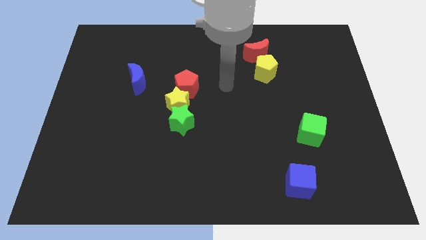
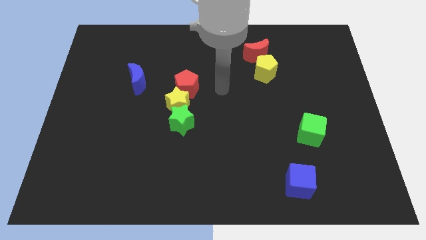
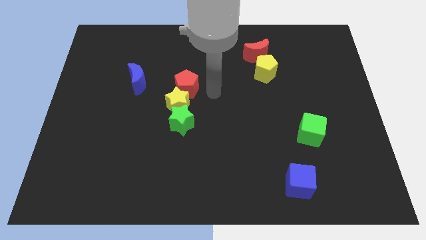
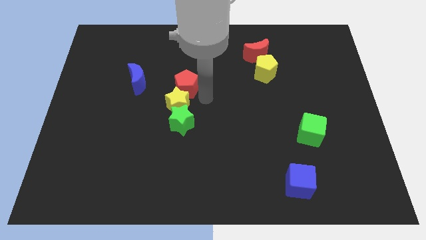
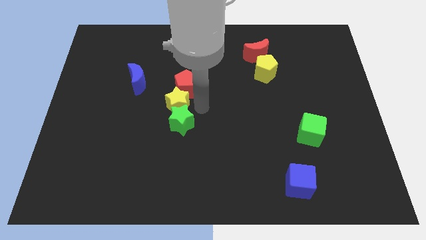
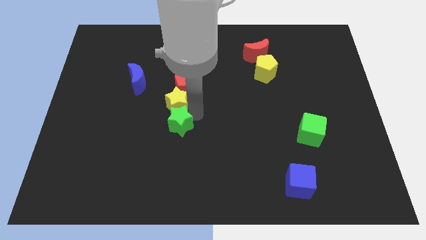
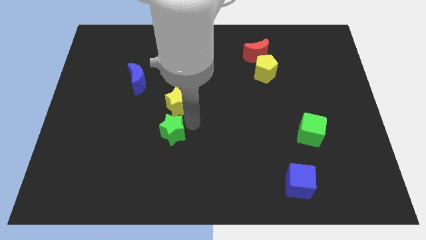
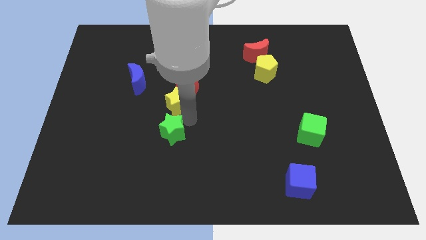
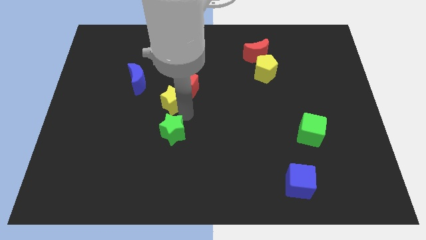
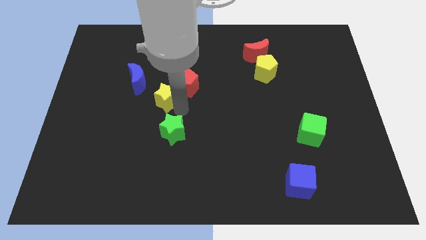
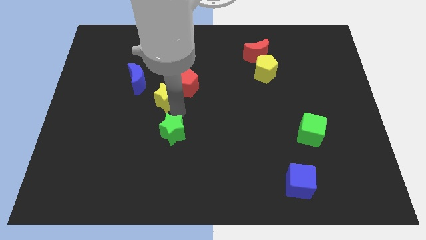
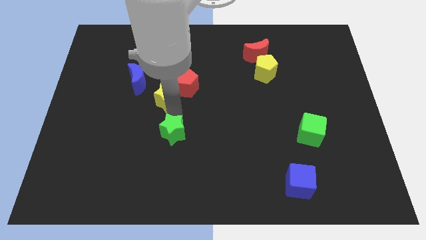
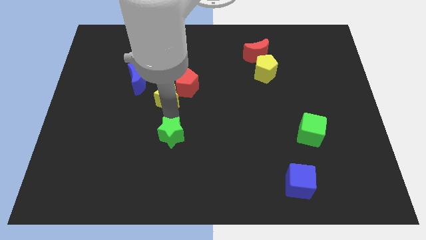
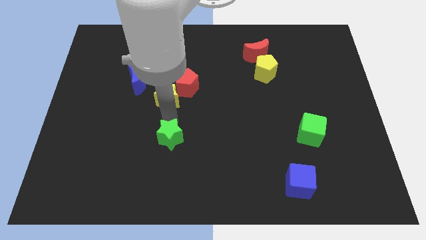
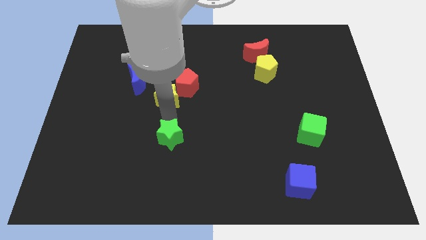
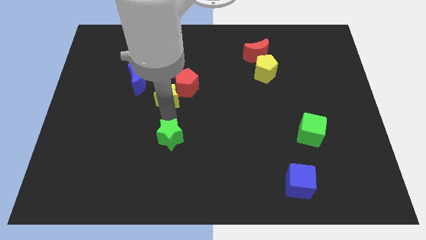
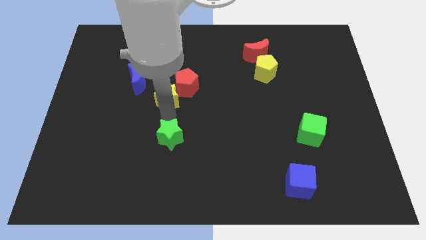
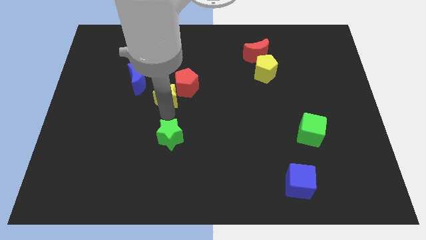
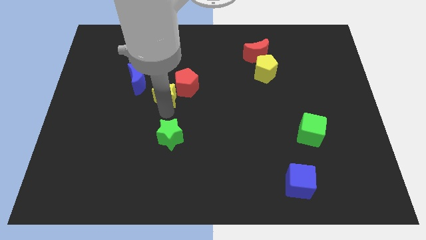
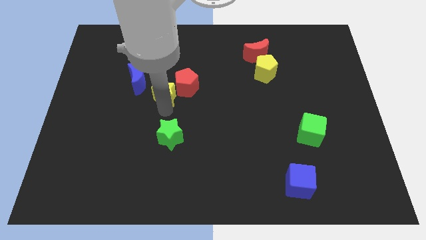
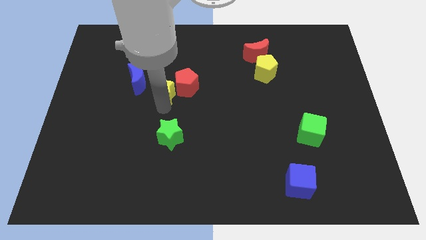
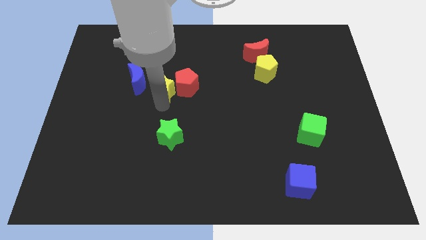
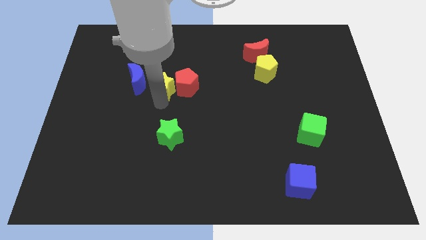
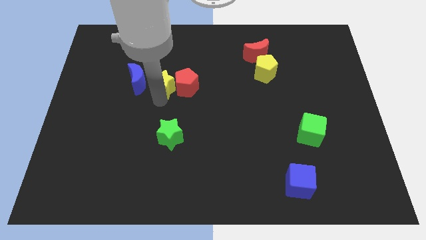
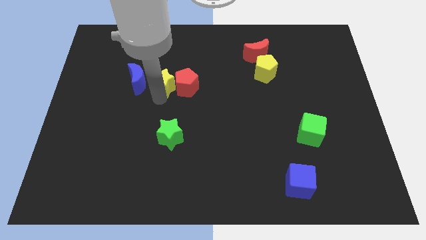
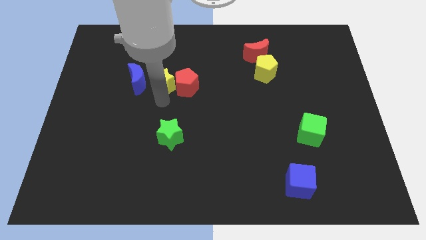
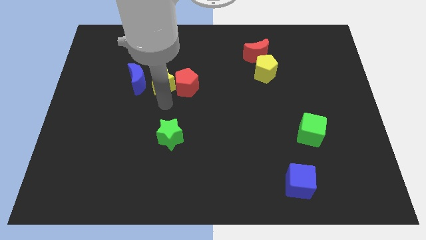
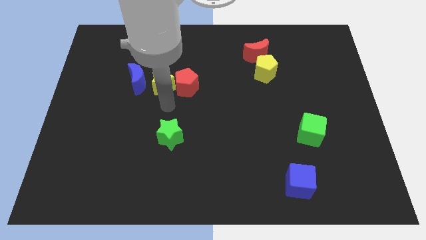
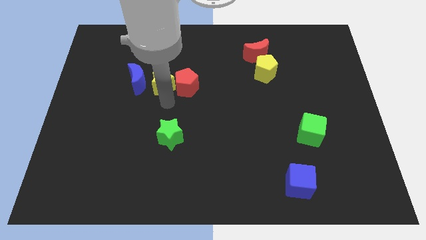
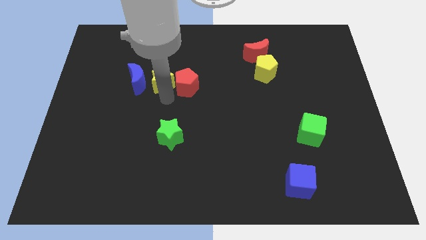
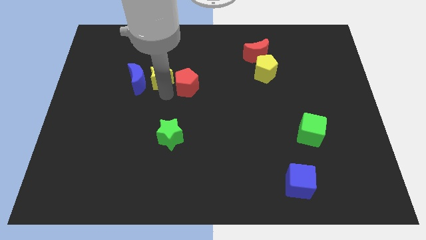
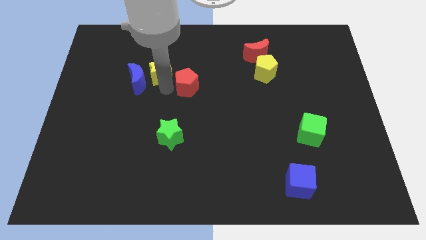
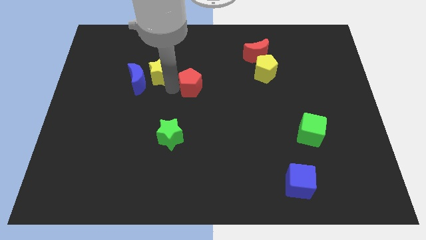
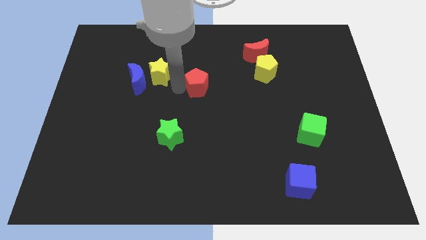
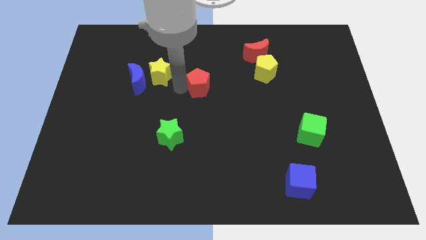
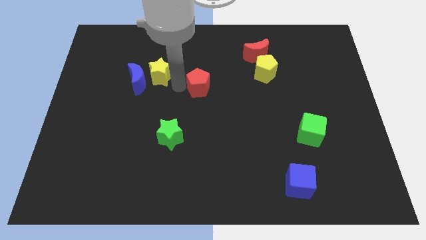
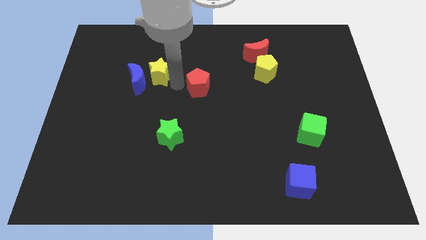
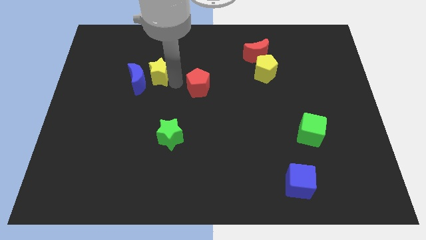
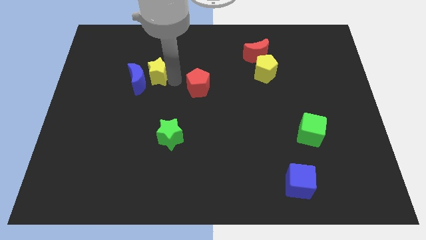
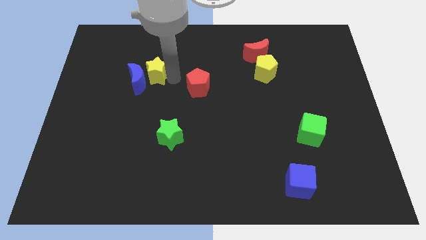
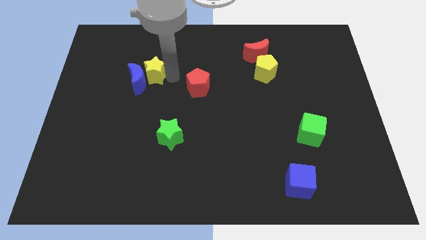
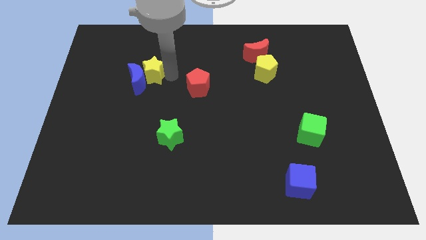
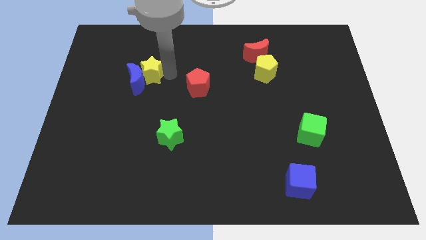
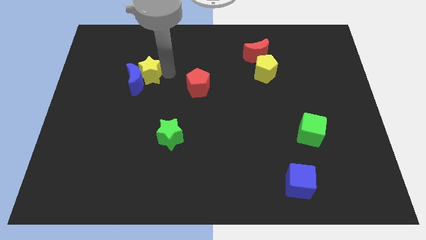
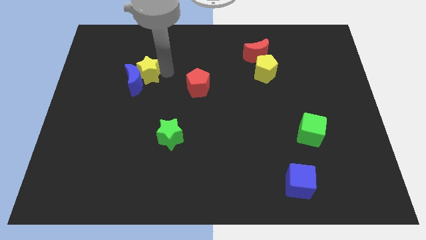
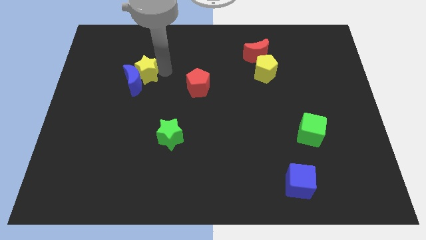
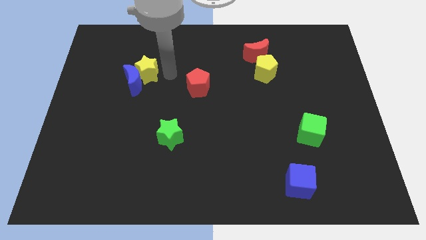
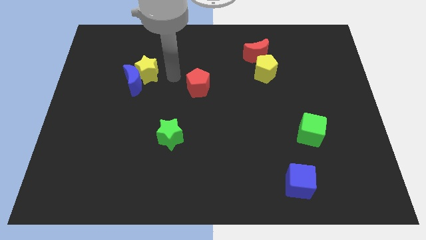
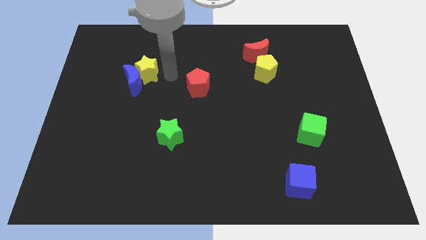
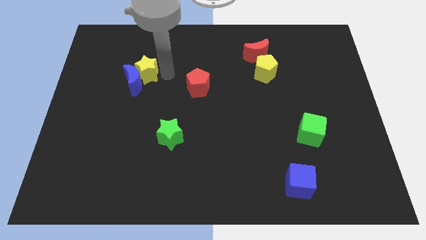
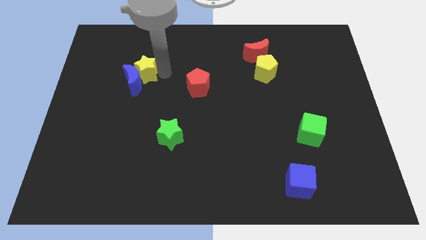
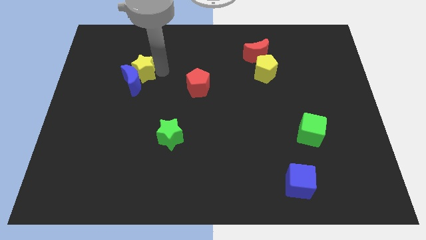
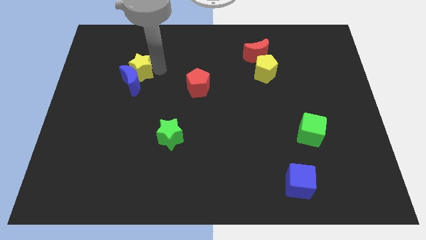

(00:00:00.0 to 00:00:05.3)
put the yellow star diagonally up and to the left of the blue moon

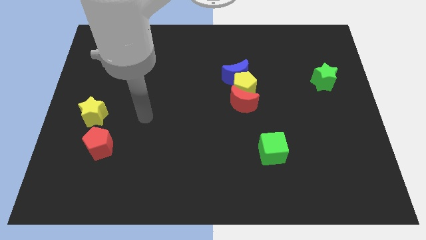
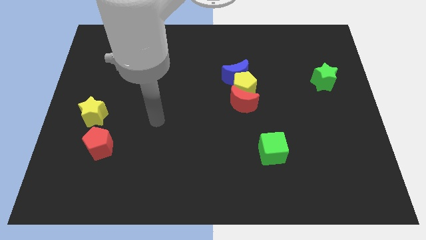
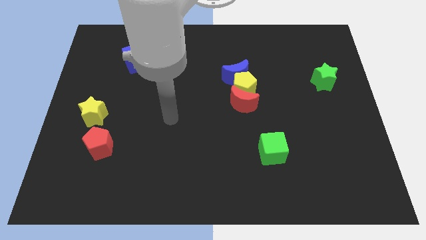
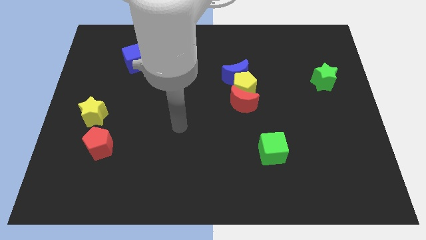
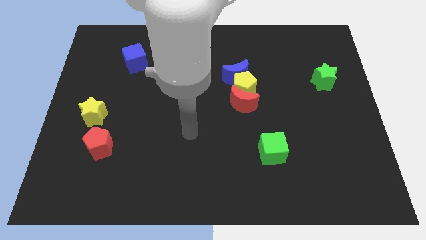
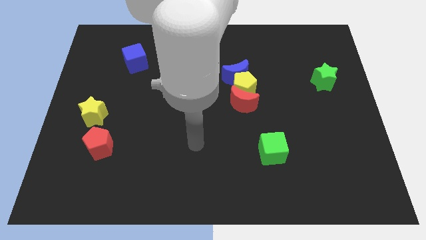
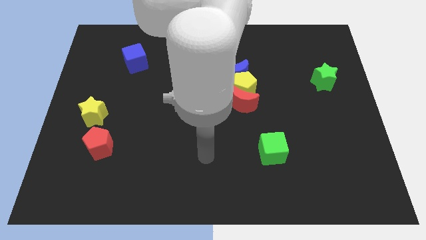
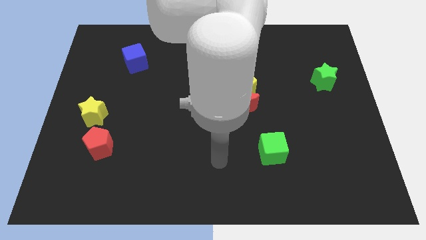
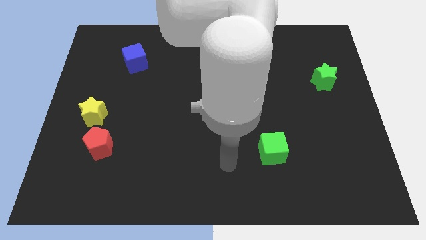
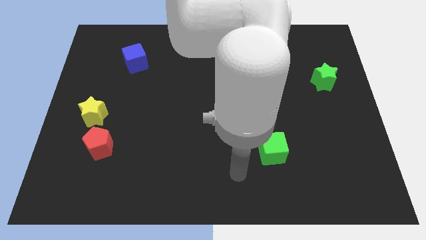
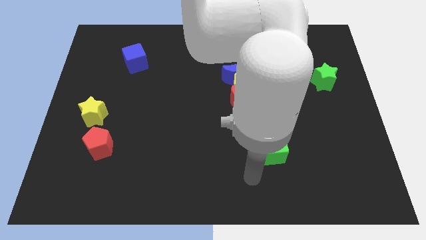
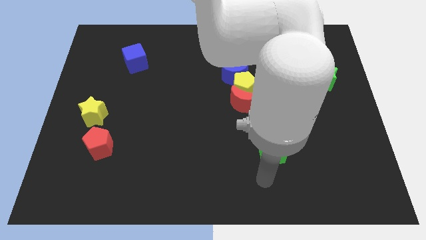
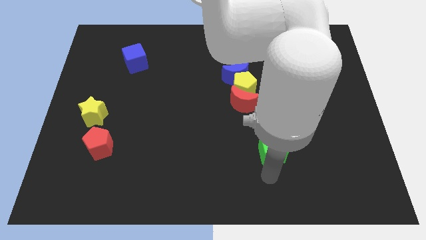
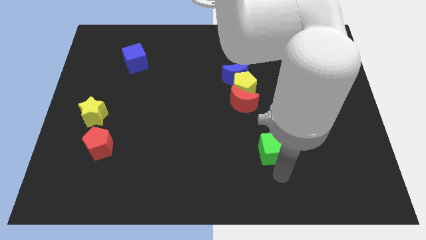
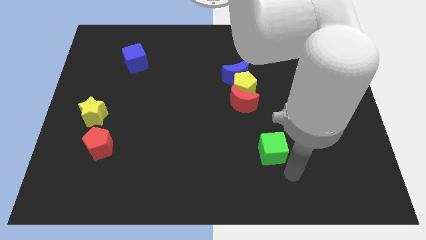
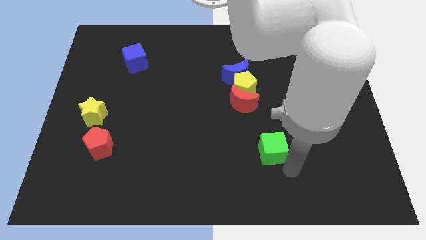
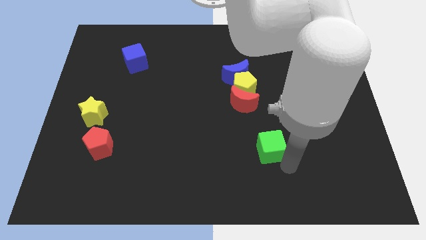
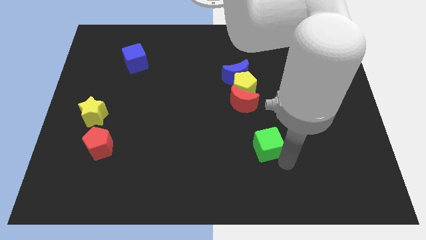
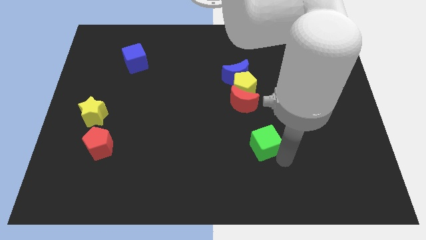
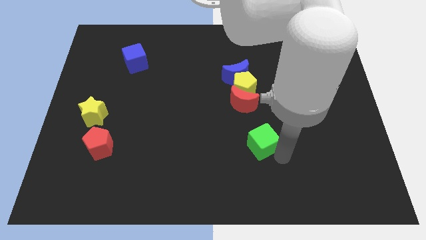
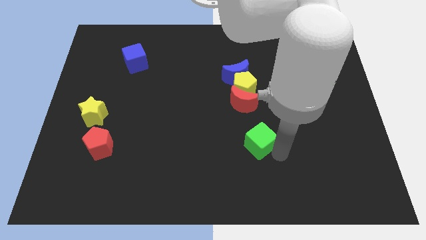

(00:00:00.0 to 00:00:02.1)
put the green cube below the yellow pentagon

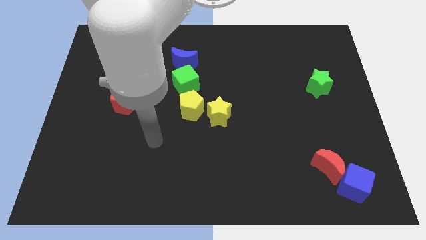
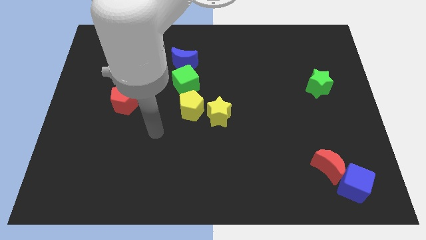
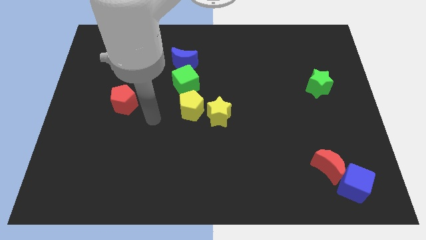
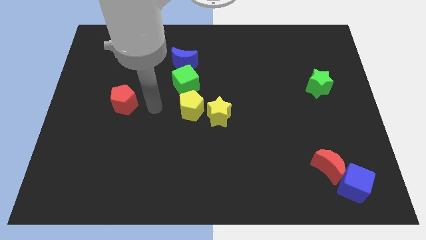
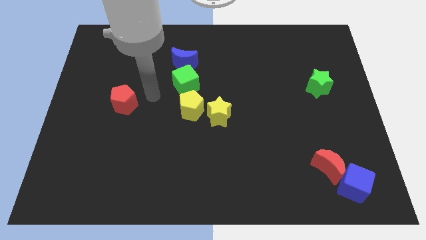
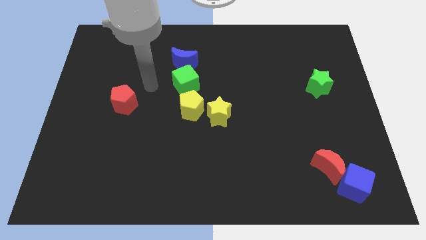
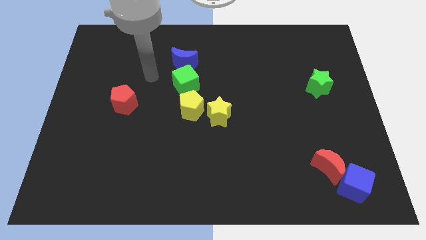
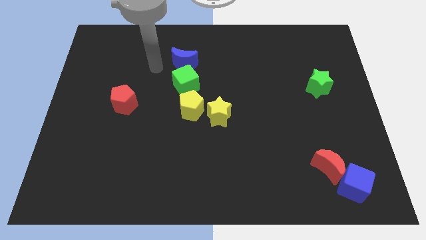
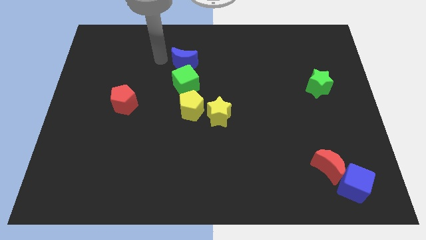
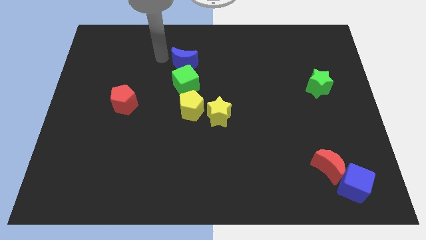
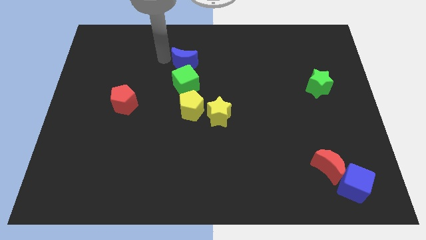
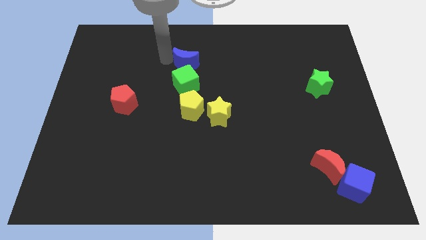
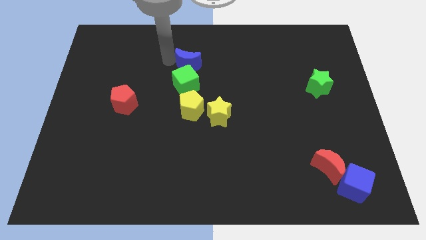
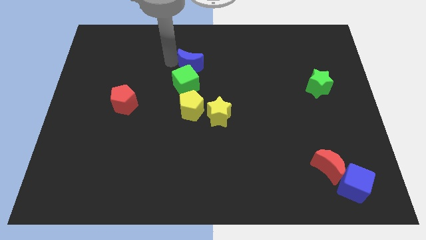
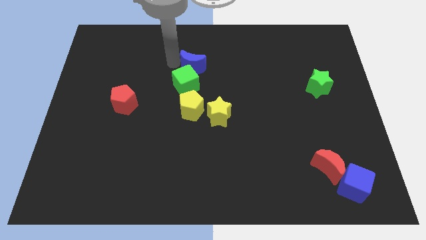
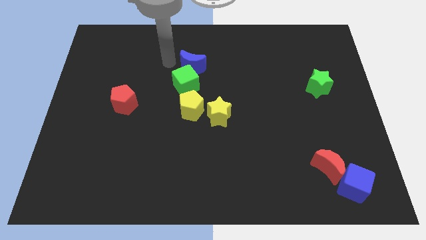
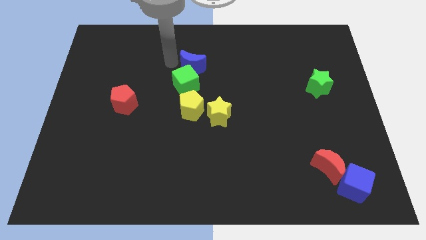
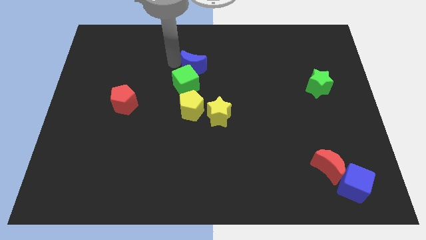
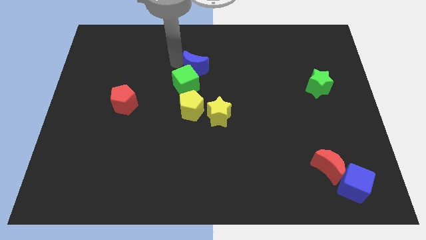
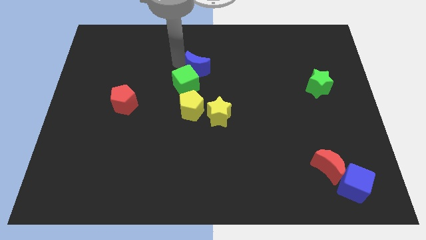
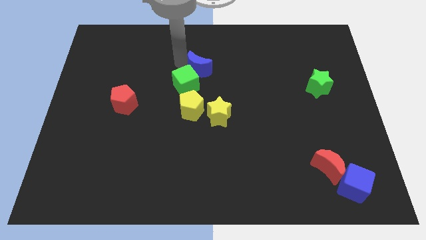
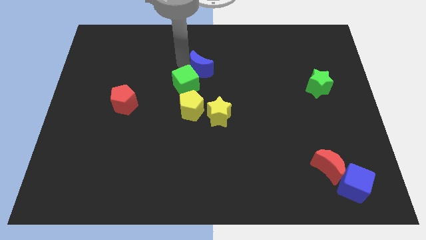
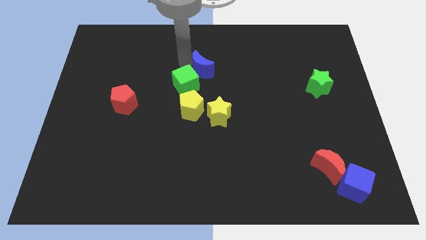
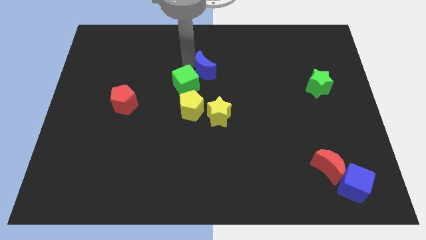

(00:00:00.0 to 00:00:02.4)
slide the blue moon to the right side of the green cube
